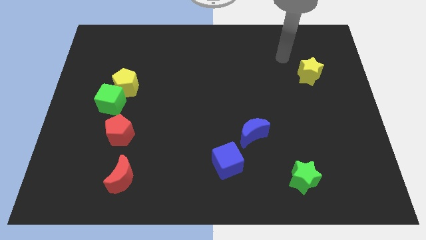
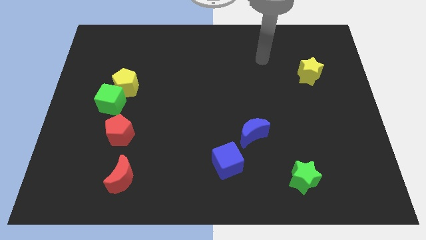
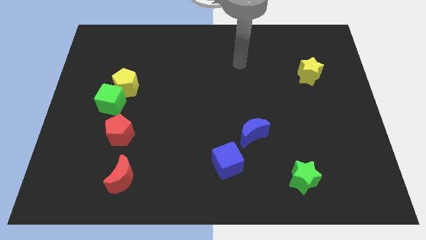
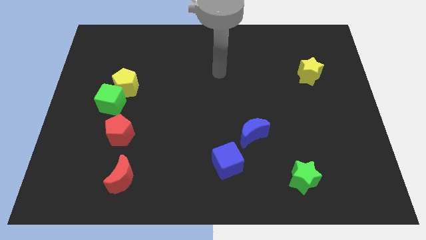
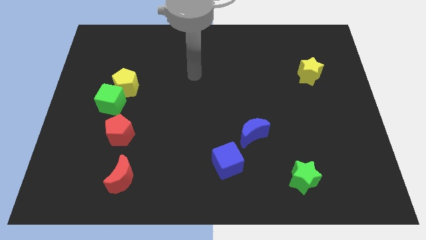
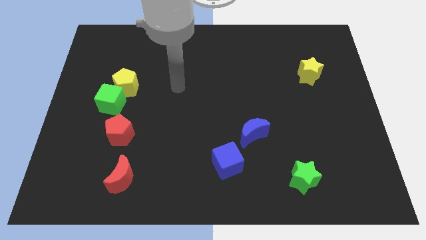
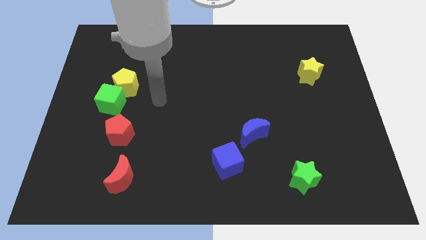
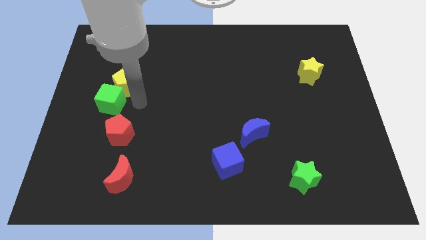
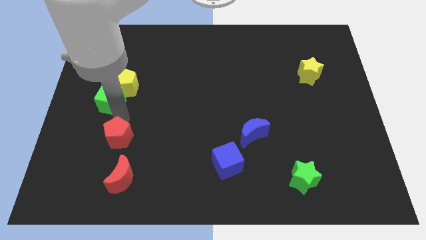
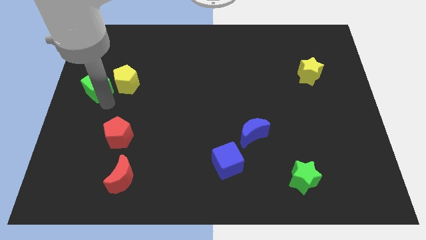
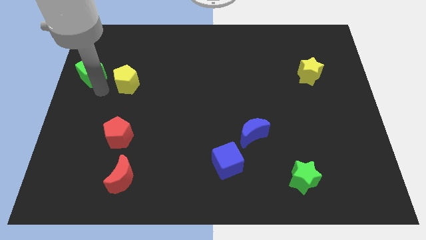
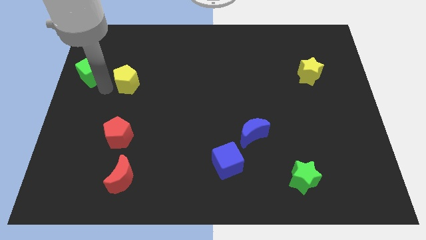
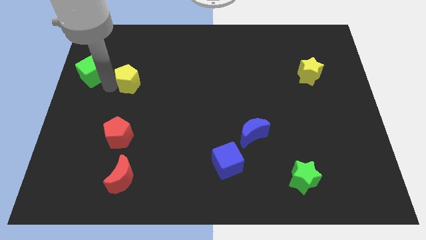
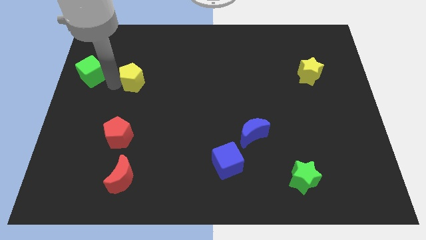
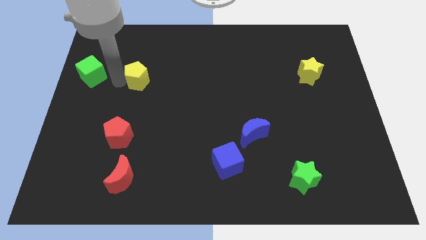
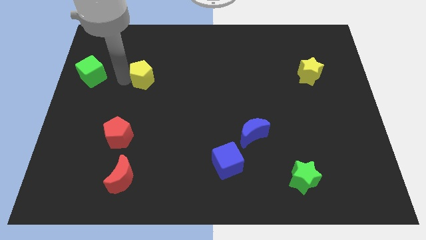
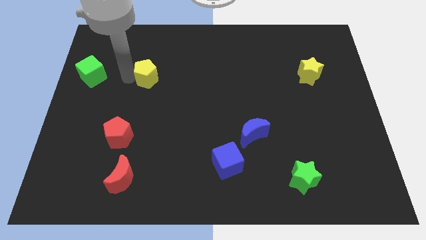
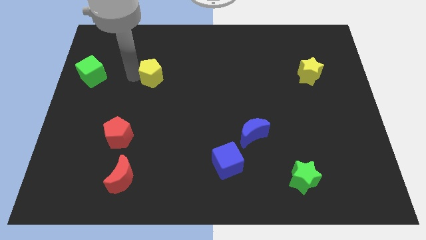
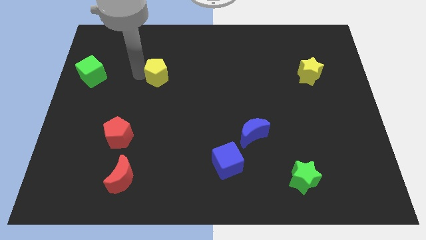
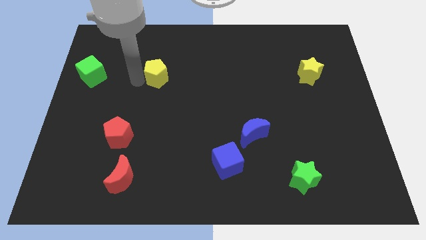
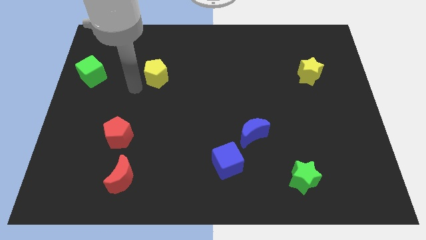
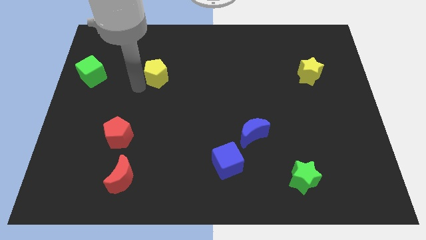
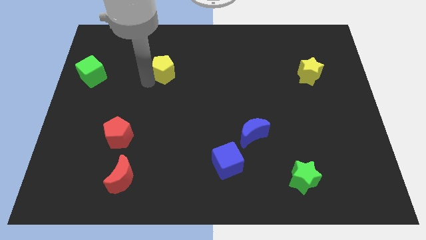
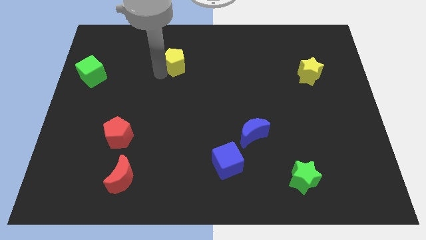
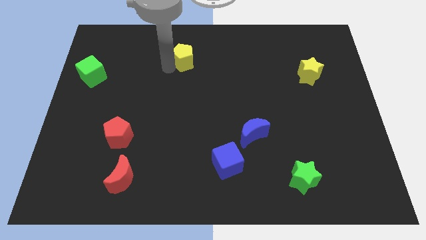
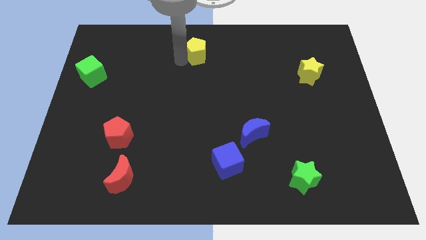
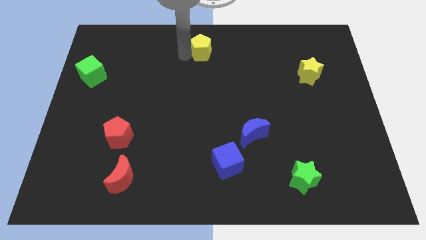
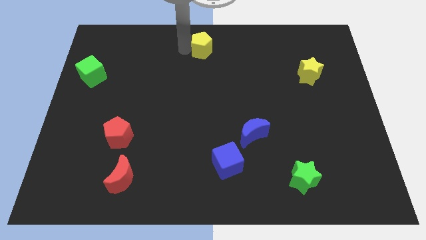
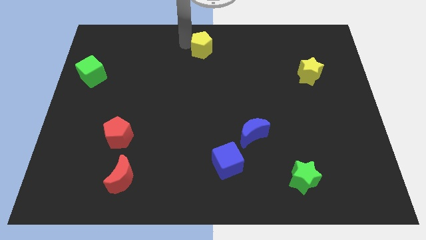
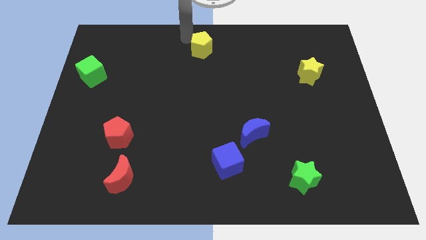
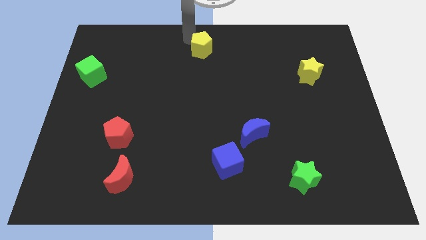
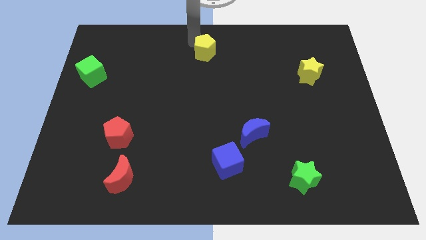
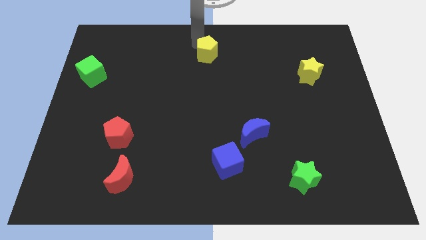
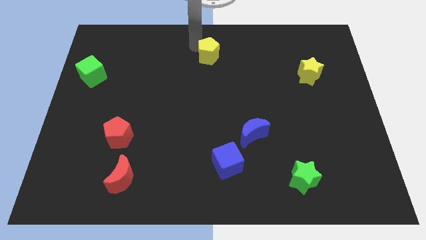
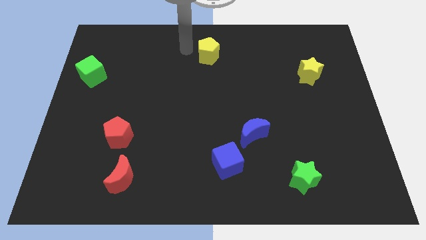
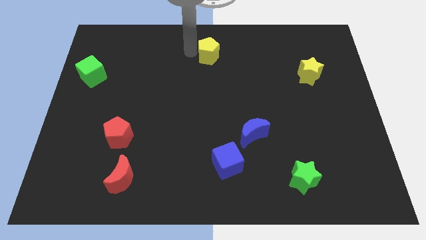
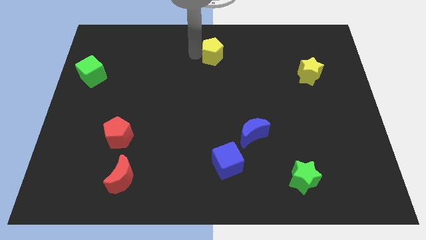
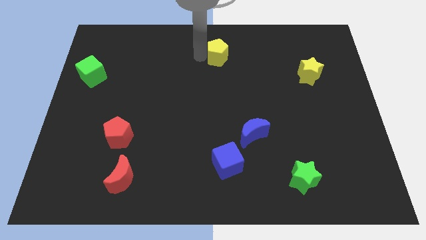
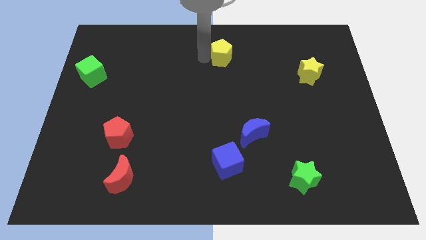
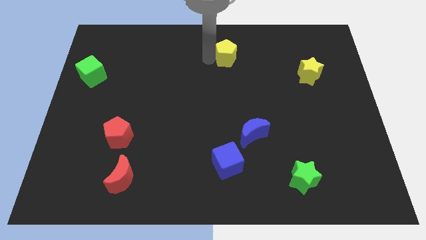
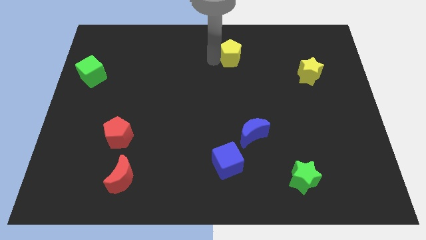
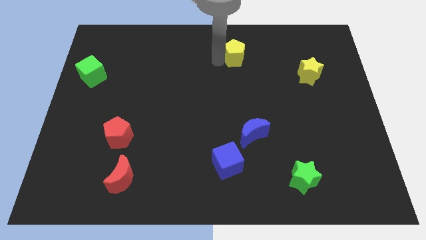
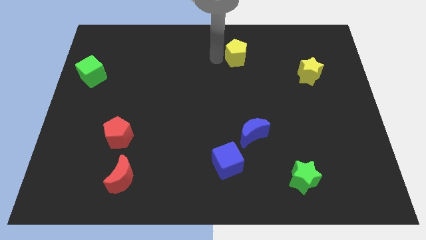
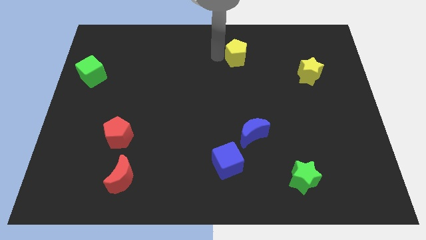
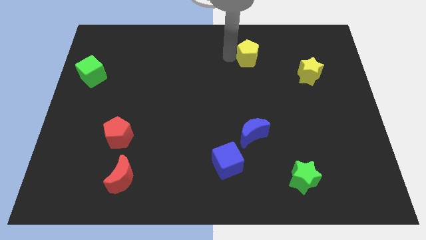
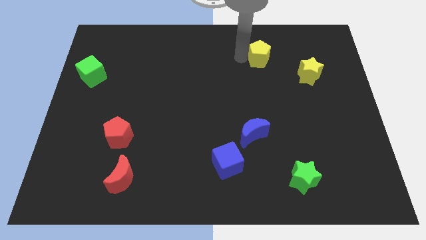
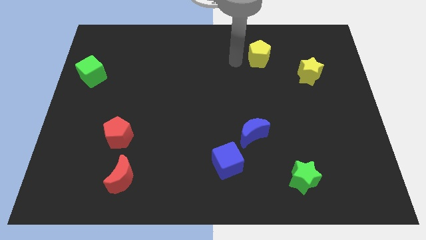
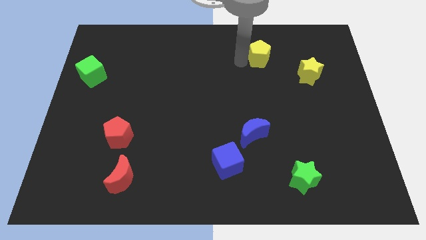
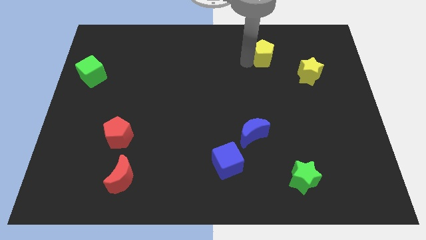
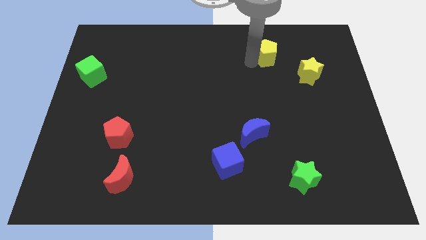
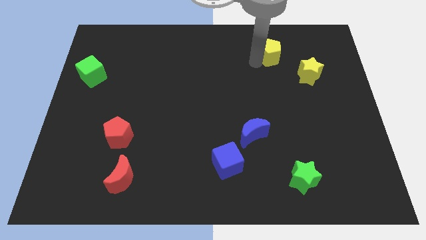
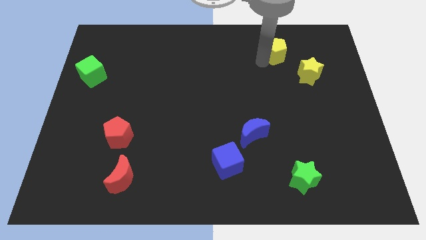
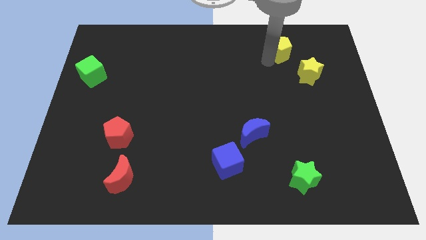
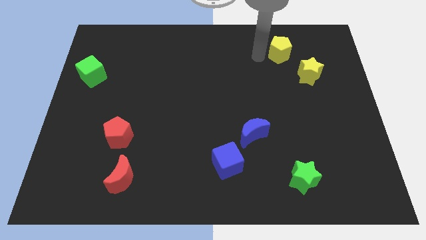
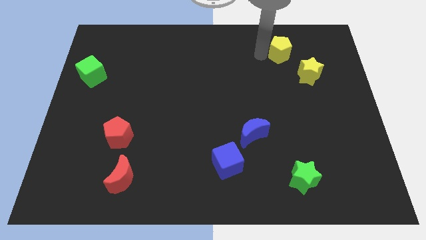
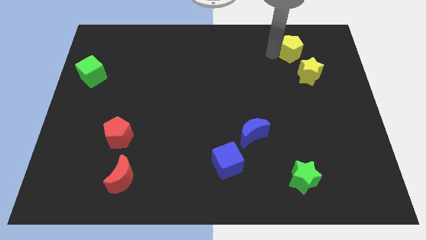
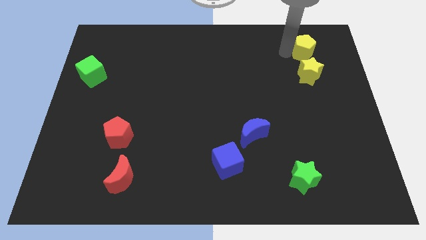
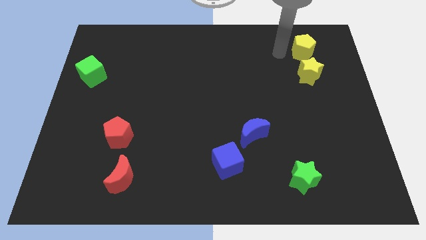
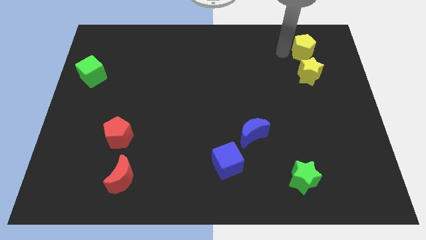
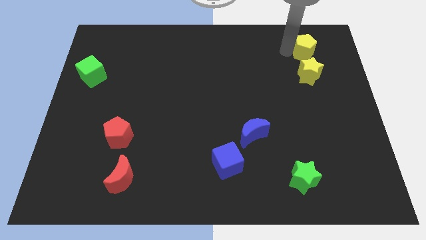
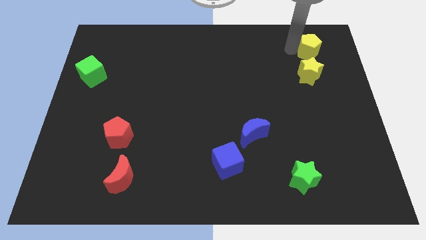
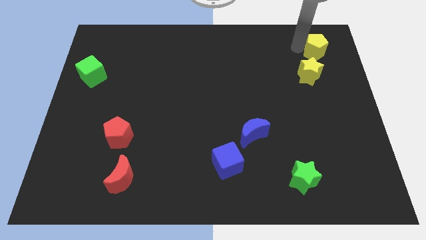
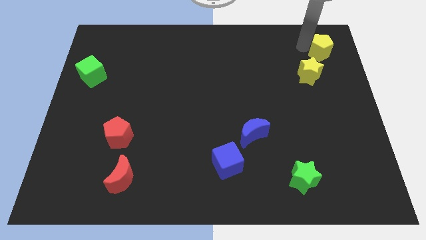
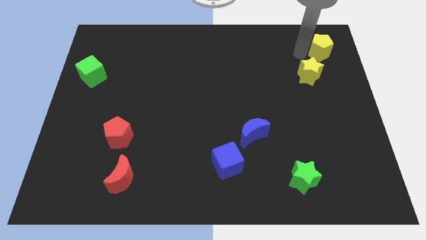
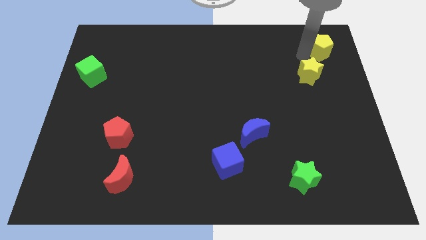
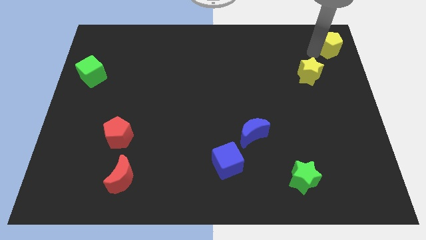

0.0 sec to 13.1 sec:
move the yellow pentagon to the top right of the board
